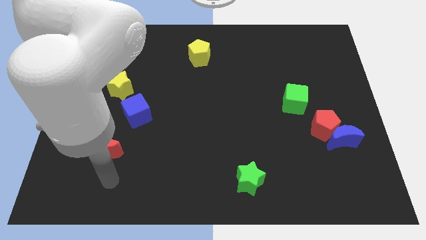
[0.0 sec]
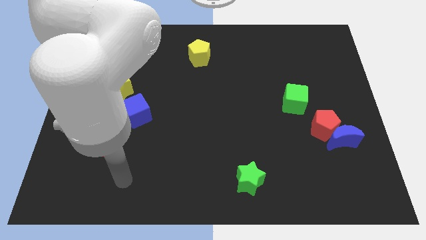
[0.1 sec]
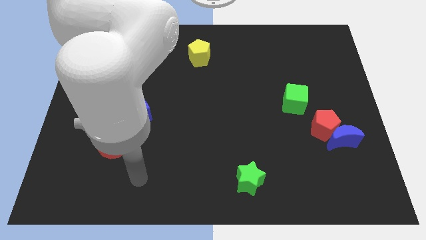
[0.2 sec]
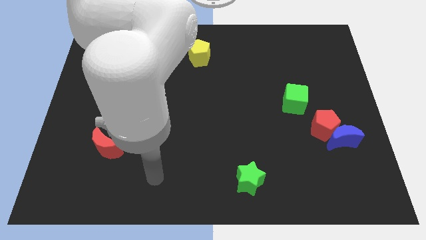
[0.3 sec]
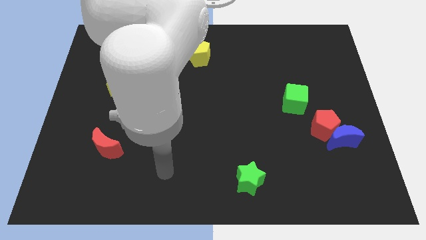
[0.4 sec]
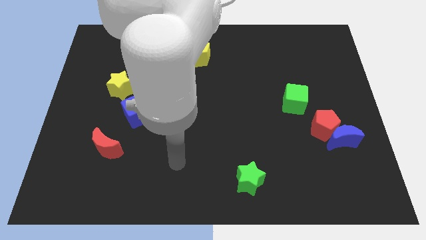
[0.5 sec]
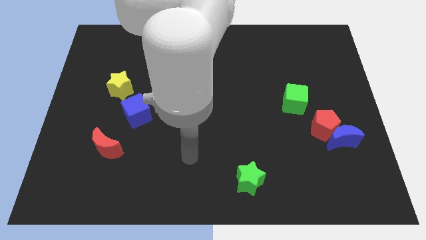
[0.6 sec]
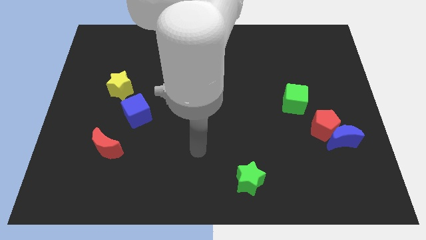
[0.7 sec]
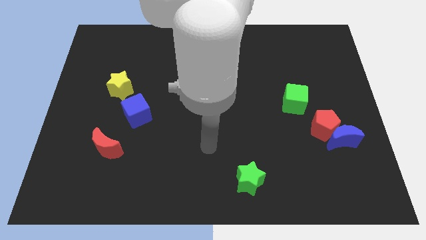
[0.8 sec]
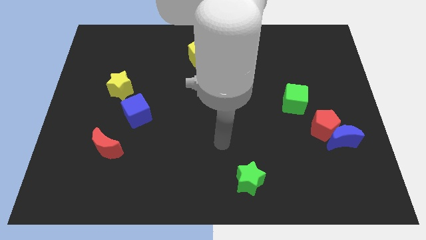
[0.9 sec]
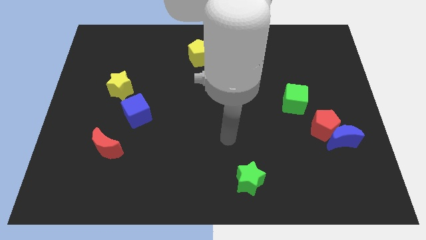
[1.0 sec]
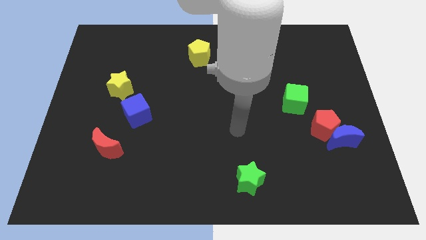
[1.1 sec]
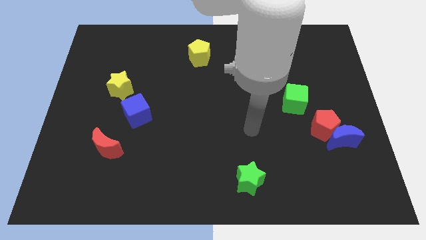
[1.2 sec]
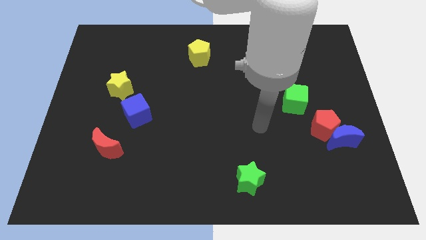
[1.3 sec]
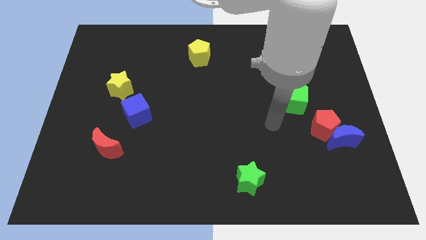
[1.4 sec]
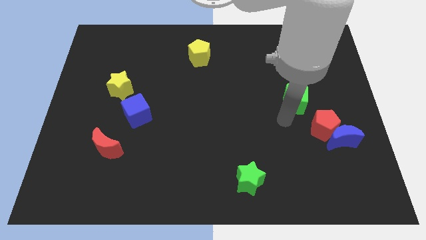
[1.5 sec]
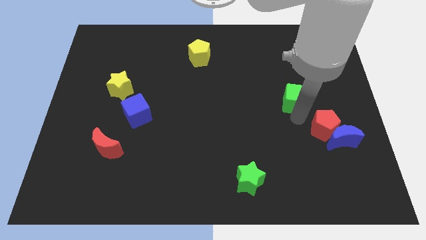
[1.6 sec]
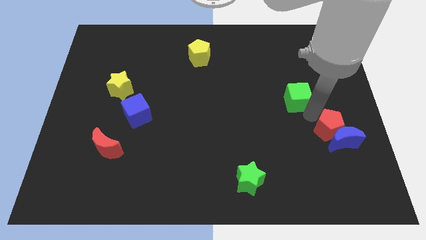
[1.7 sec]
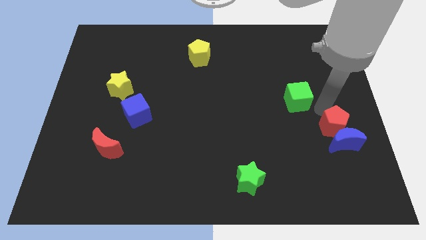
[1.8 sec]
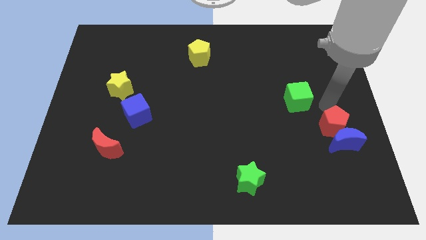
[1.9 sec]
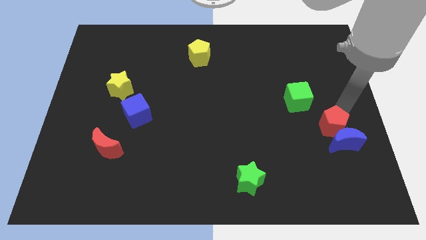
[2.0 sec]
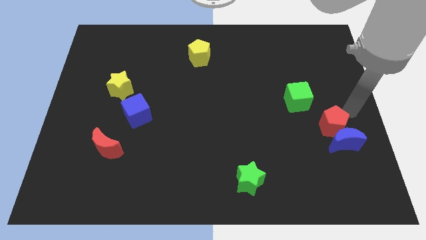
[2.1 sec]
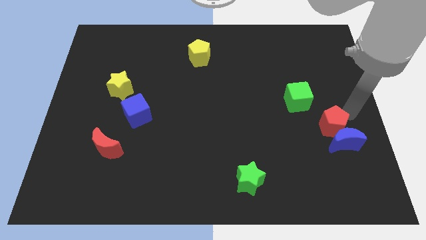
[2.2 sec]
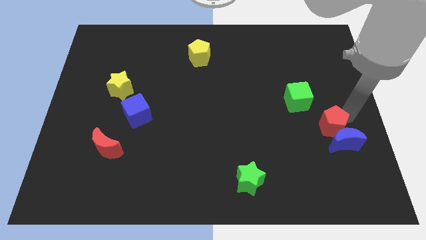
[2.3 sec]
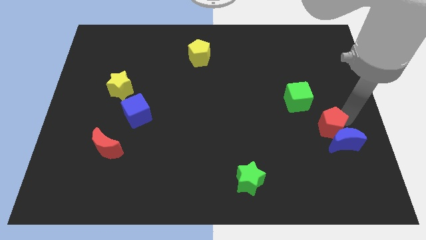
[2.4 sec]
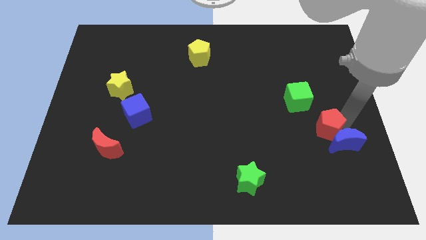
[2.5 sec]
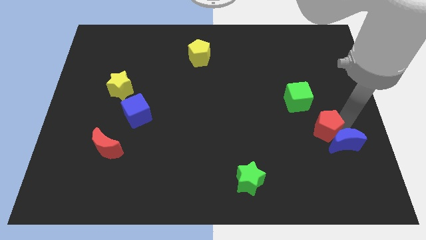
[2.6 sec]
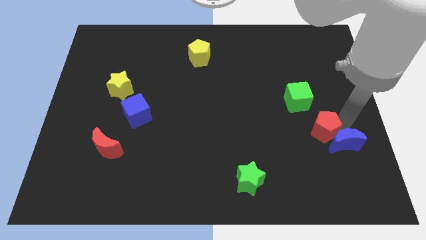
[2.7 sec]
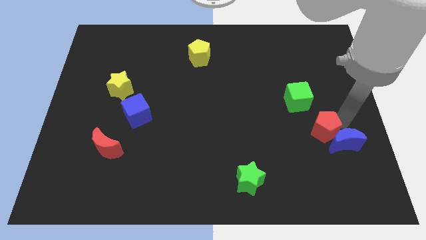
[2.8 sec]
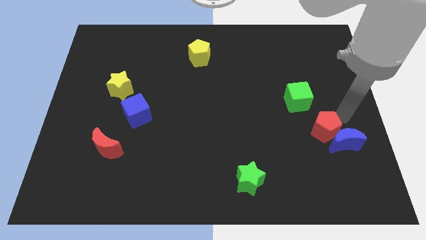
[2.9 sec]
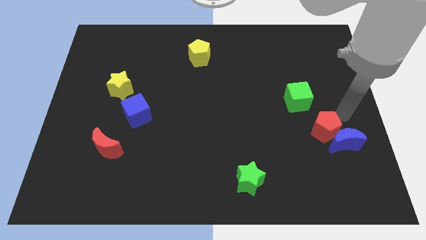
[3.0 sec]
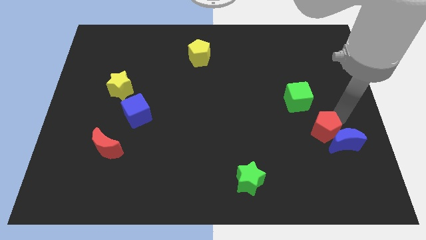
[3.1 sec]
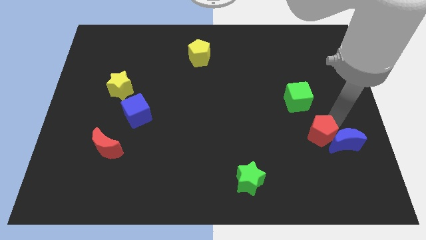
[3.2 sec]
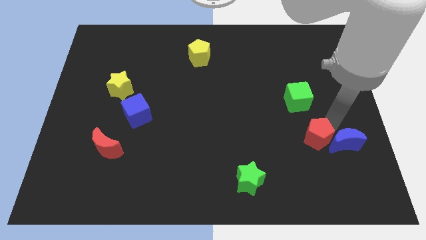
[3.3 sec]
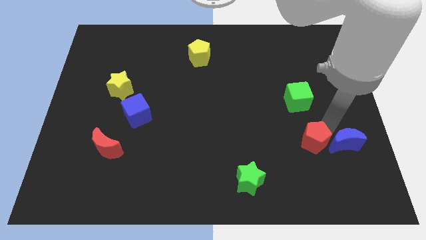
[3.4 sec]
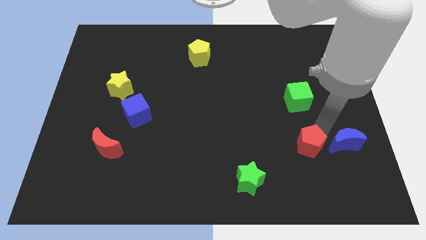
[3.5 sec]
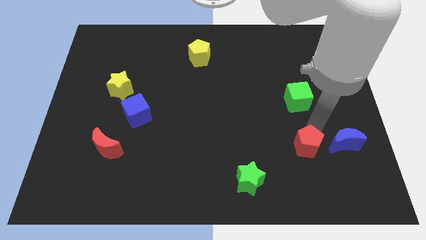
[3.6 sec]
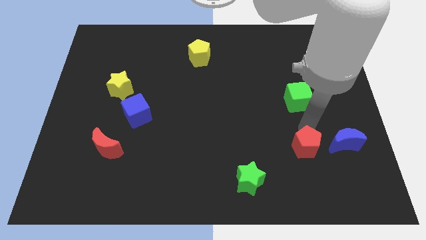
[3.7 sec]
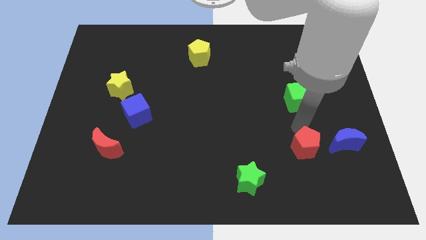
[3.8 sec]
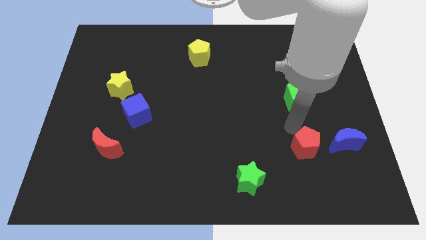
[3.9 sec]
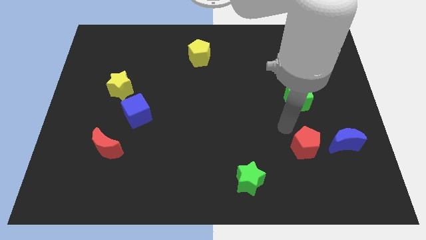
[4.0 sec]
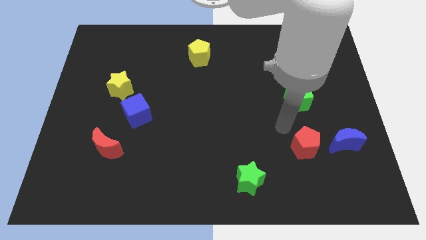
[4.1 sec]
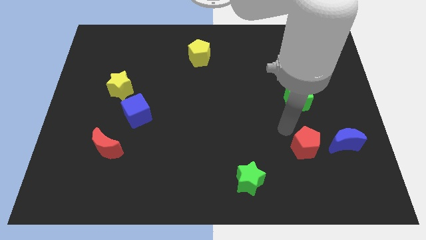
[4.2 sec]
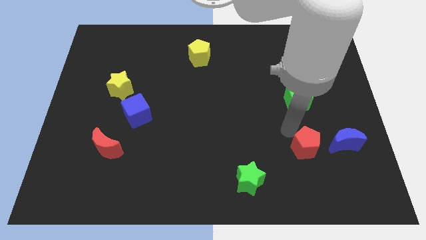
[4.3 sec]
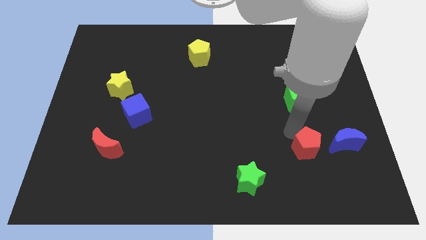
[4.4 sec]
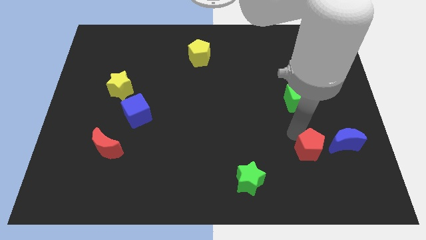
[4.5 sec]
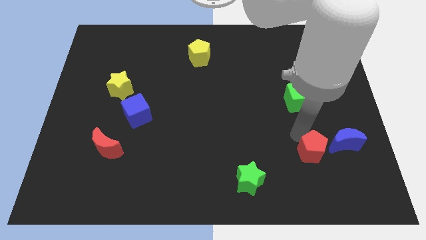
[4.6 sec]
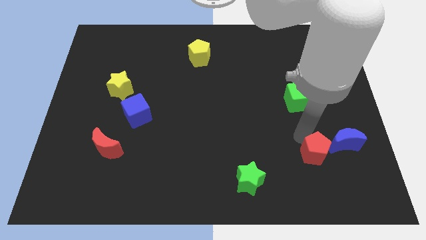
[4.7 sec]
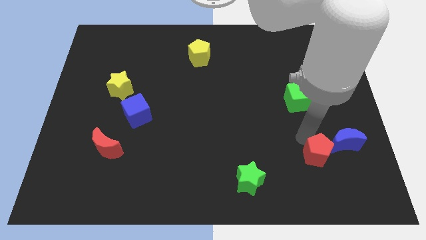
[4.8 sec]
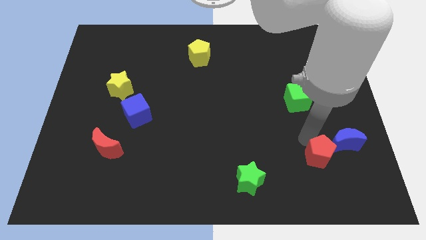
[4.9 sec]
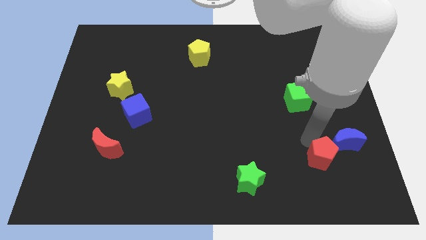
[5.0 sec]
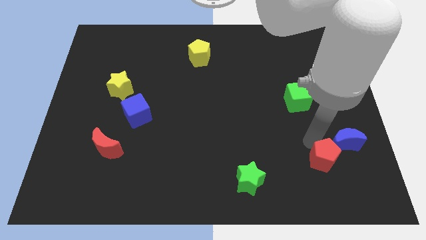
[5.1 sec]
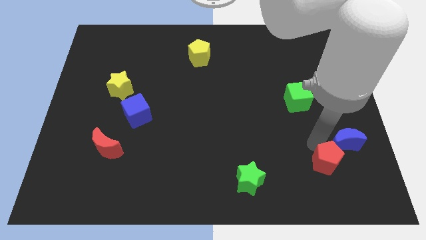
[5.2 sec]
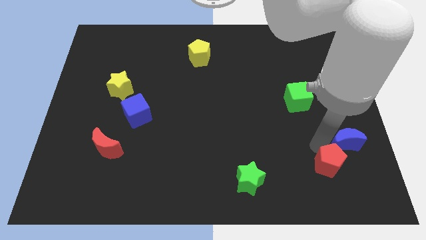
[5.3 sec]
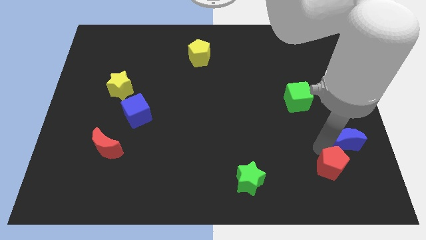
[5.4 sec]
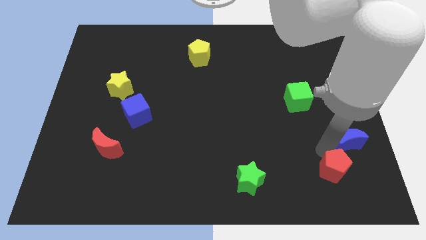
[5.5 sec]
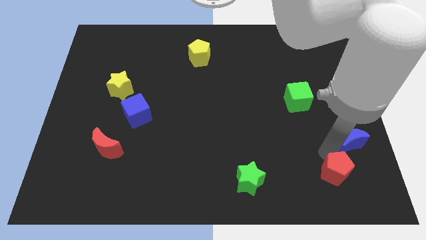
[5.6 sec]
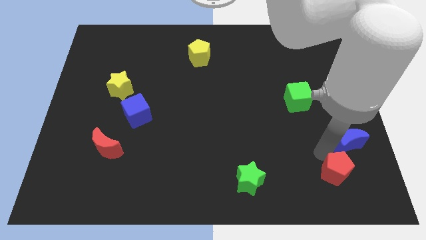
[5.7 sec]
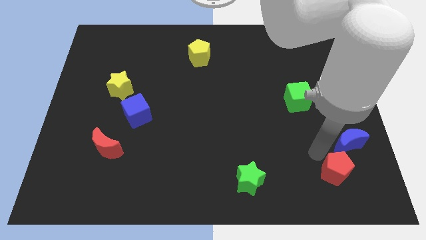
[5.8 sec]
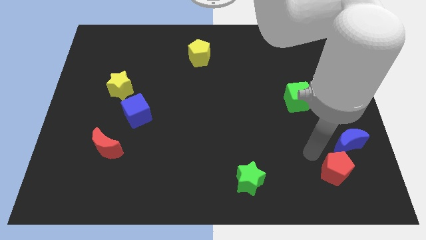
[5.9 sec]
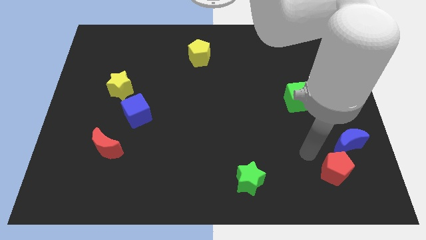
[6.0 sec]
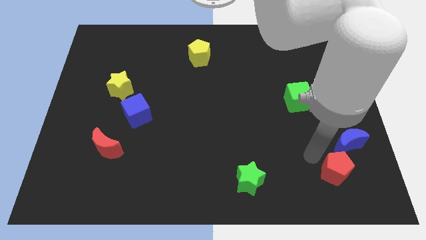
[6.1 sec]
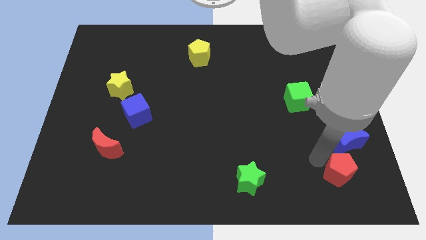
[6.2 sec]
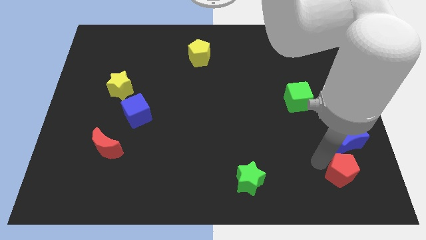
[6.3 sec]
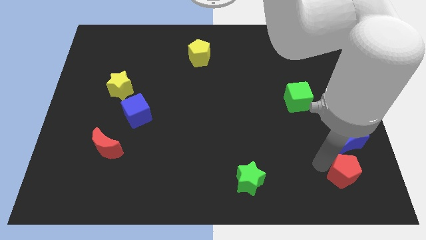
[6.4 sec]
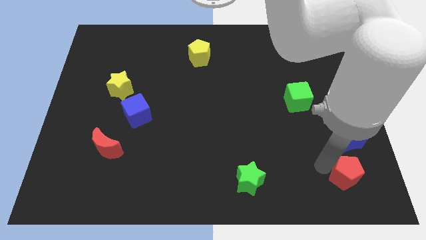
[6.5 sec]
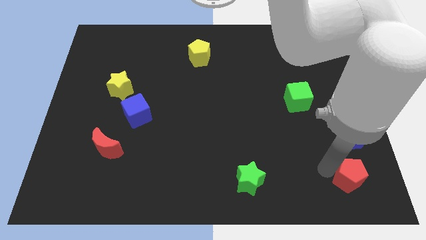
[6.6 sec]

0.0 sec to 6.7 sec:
push the red pentagon to the lower right corner
